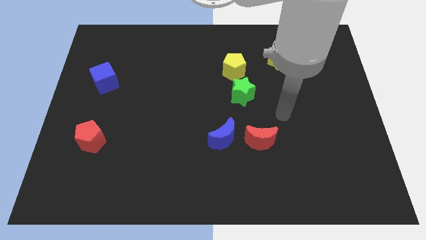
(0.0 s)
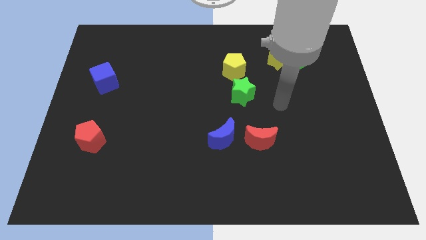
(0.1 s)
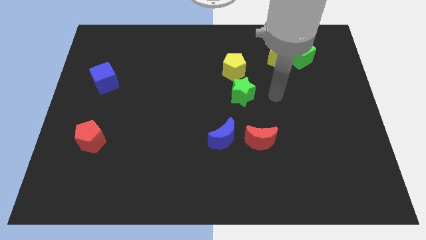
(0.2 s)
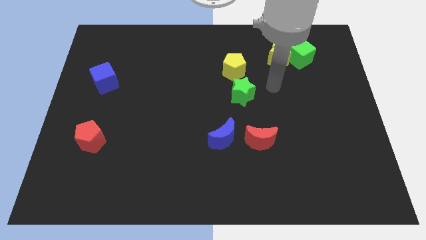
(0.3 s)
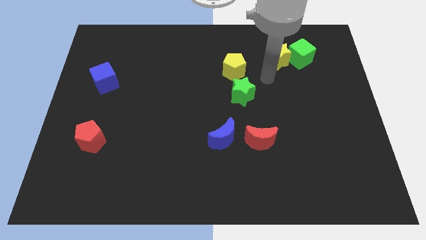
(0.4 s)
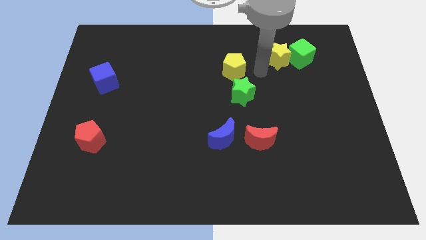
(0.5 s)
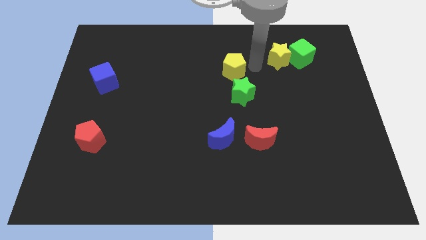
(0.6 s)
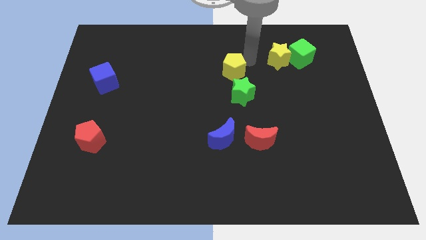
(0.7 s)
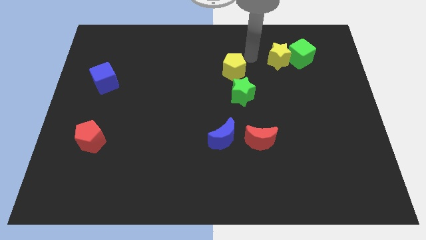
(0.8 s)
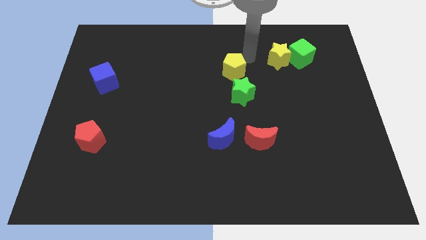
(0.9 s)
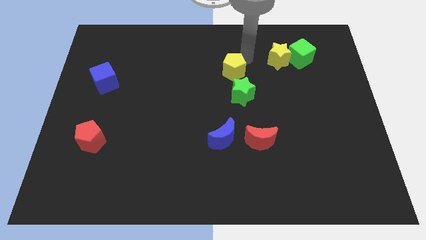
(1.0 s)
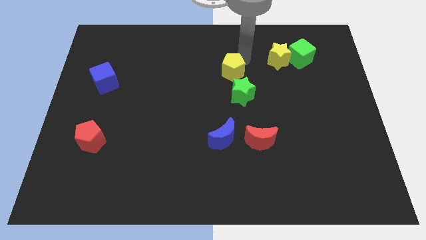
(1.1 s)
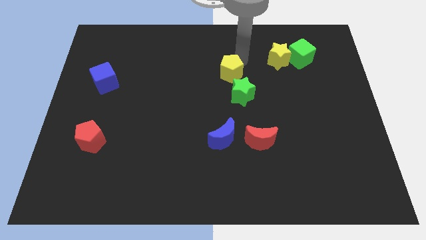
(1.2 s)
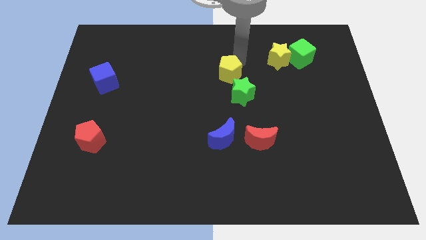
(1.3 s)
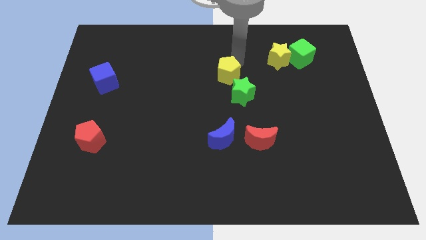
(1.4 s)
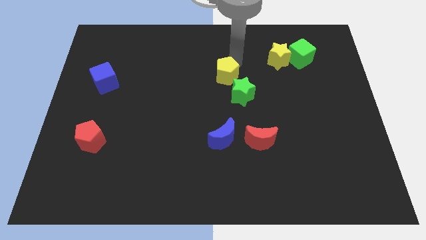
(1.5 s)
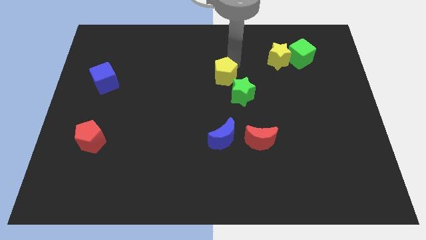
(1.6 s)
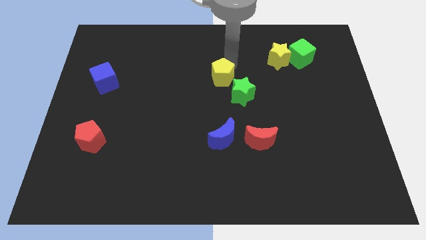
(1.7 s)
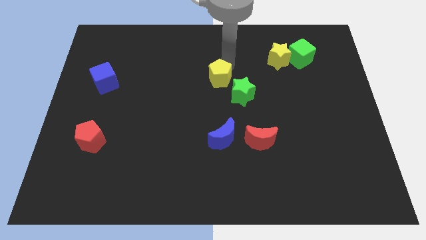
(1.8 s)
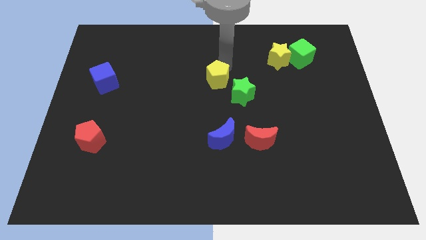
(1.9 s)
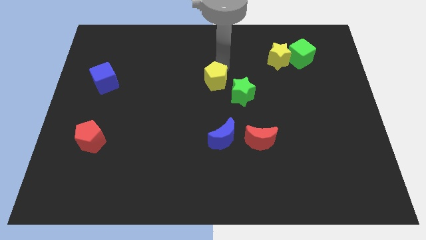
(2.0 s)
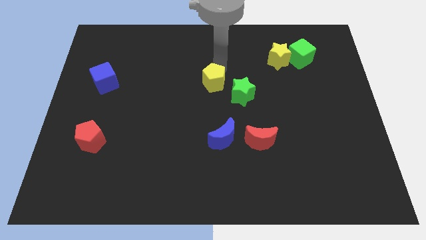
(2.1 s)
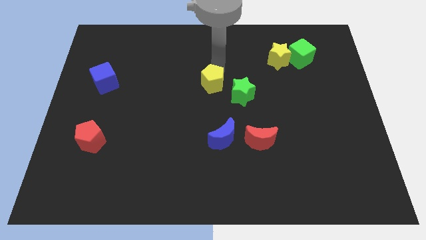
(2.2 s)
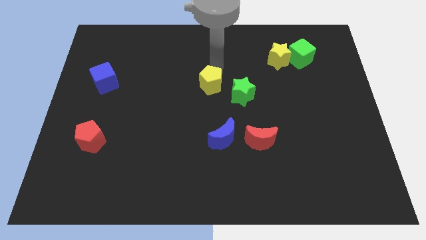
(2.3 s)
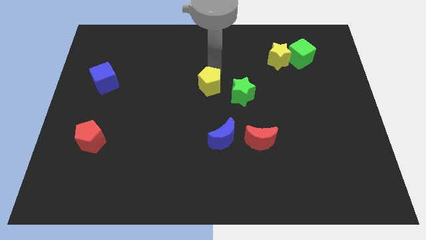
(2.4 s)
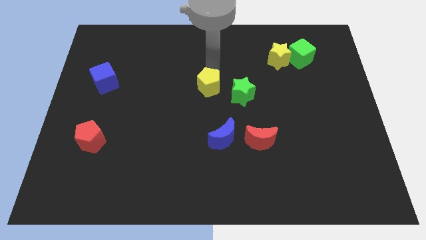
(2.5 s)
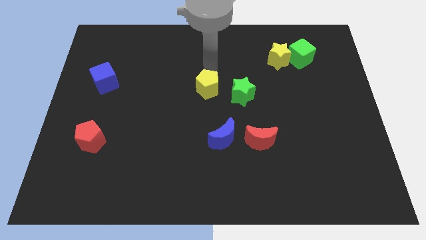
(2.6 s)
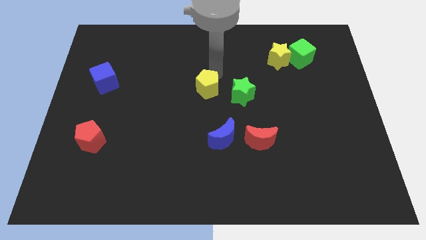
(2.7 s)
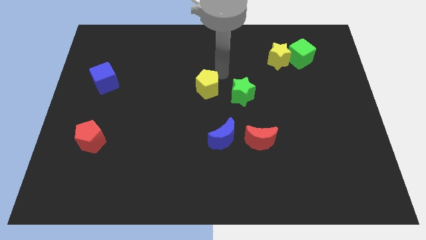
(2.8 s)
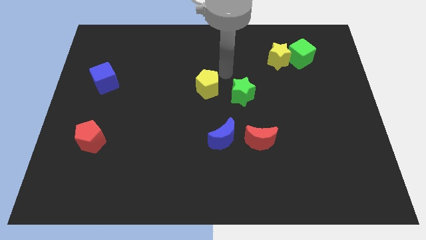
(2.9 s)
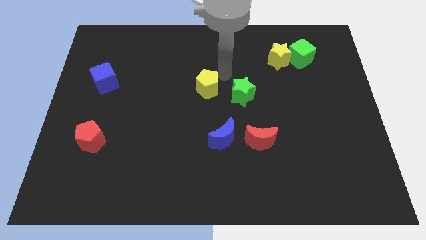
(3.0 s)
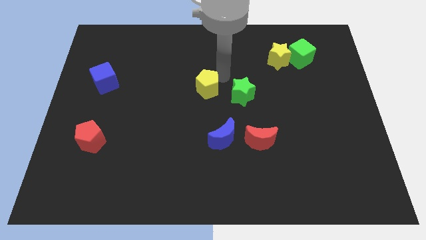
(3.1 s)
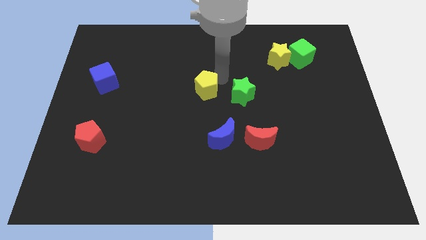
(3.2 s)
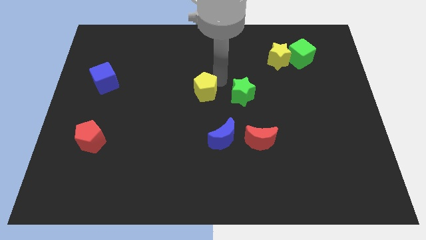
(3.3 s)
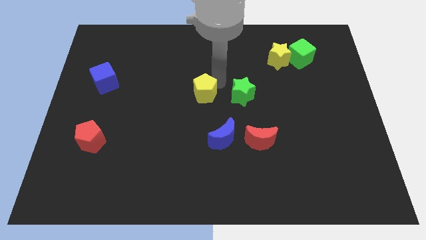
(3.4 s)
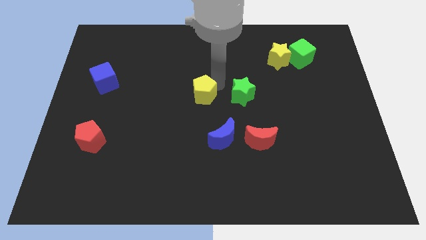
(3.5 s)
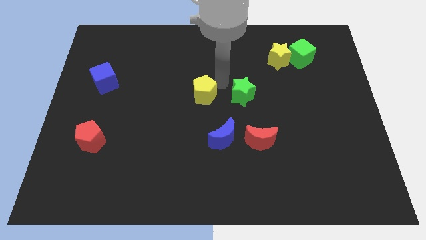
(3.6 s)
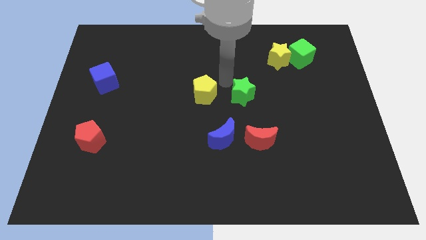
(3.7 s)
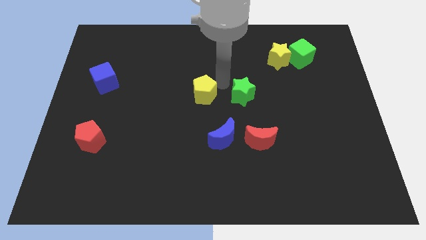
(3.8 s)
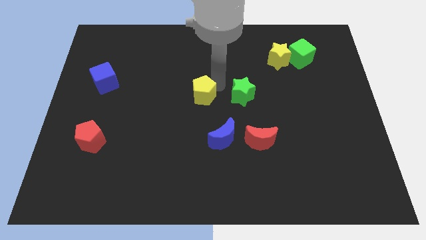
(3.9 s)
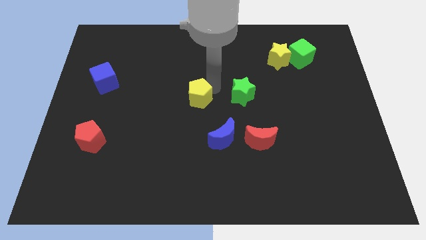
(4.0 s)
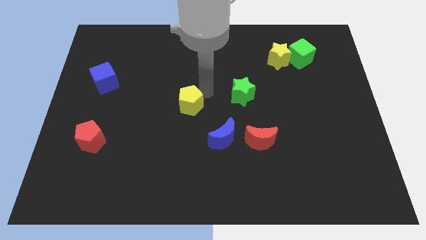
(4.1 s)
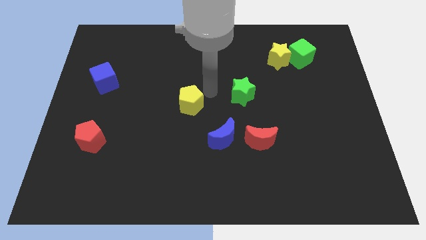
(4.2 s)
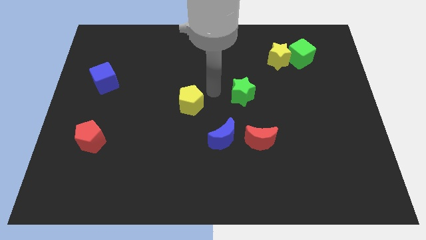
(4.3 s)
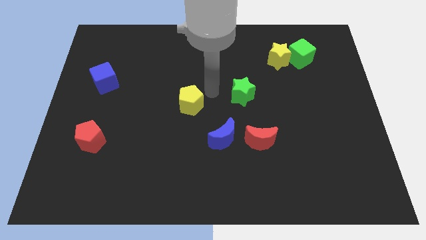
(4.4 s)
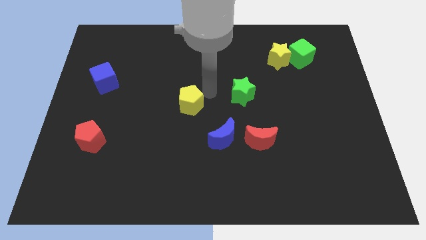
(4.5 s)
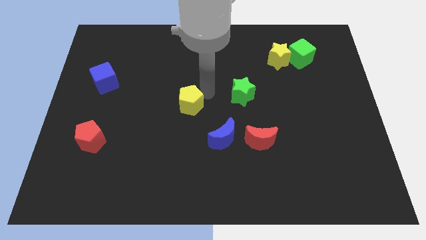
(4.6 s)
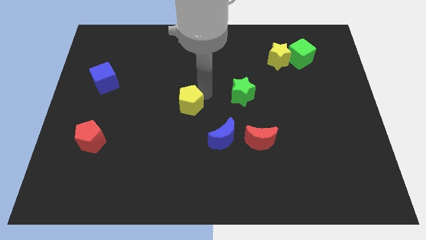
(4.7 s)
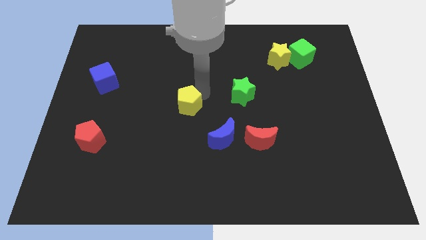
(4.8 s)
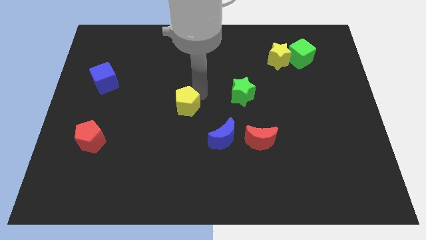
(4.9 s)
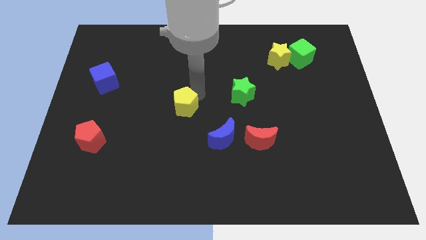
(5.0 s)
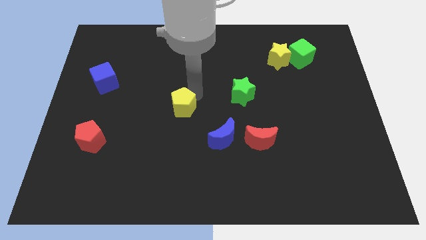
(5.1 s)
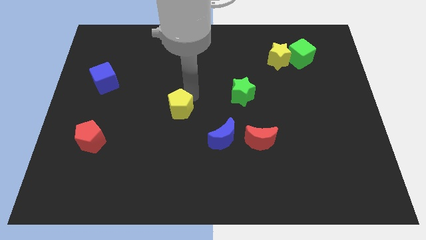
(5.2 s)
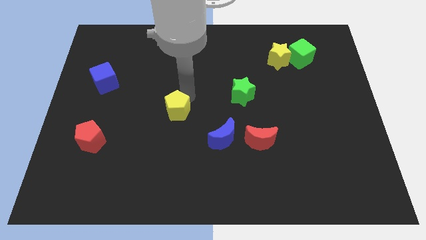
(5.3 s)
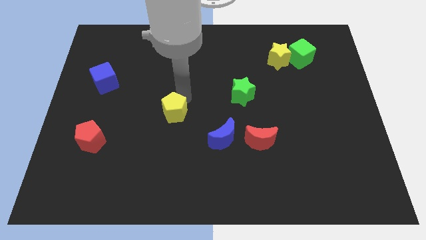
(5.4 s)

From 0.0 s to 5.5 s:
slide the yellow pentagon downwards and then to the left

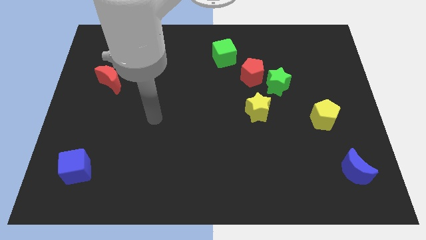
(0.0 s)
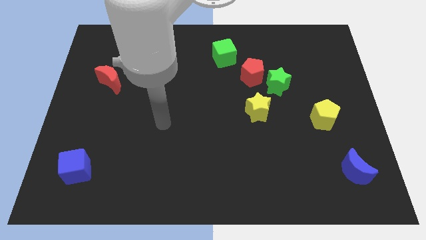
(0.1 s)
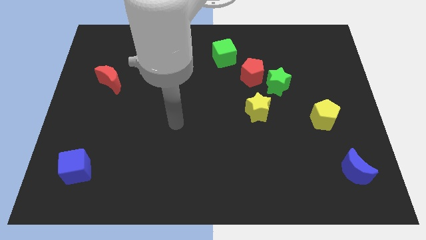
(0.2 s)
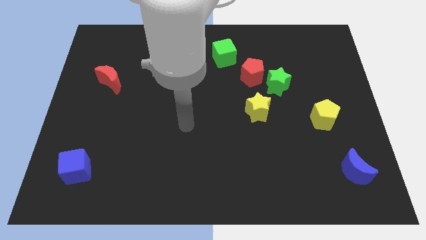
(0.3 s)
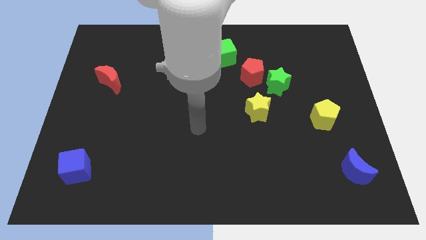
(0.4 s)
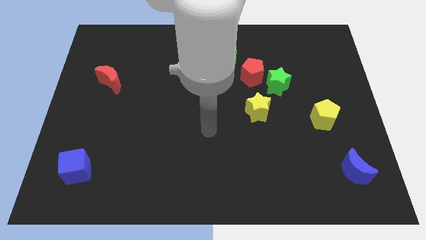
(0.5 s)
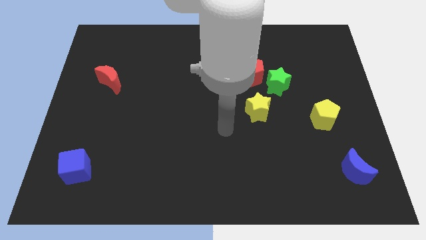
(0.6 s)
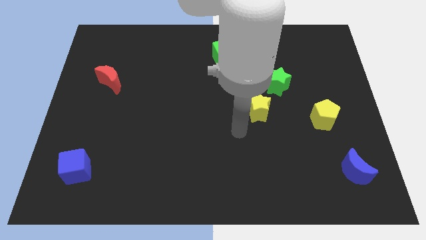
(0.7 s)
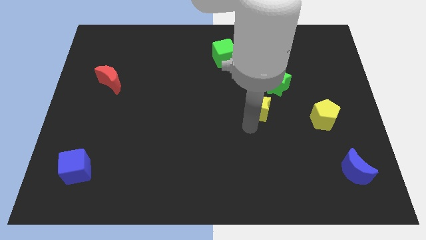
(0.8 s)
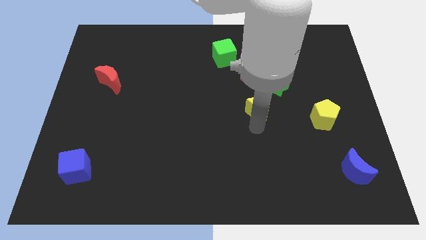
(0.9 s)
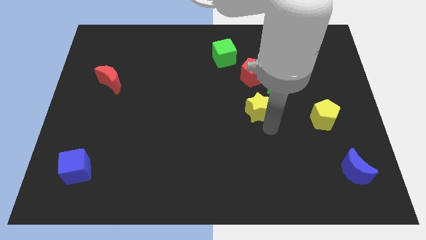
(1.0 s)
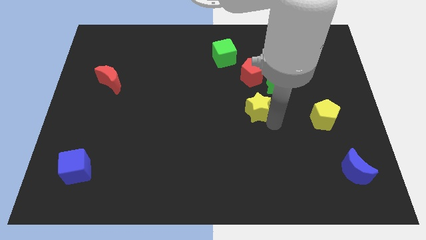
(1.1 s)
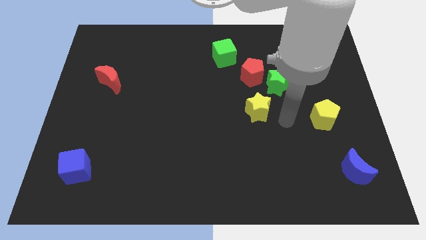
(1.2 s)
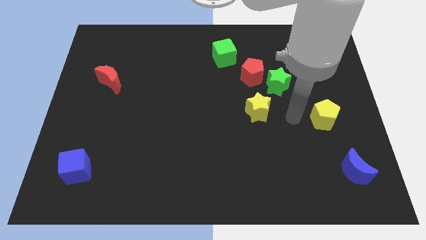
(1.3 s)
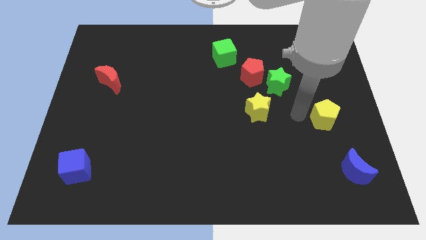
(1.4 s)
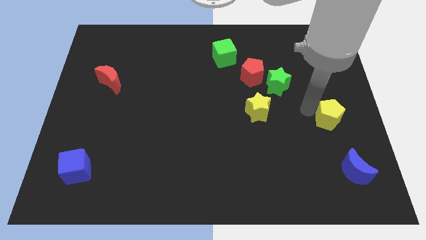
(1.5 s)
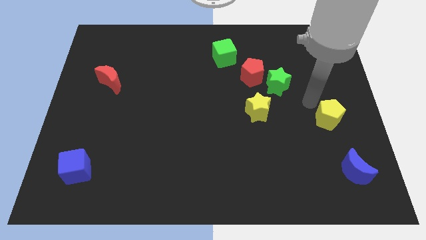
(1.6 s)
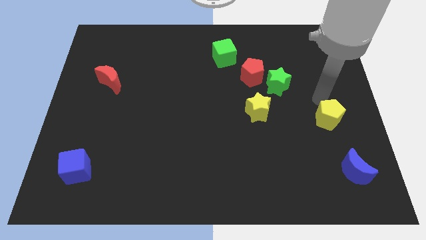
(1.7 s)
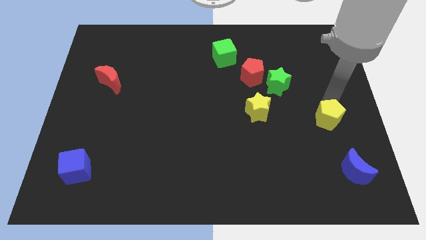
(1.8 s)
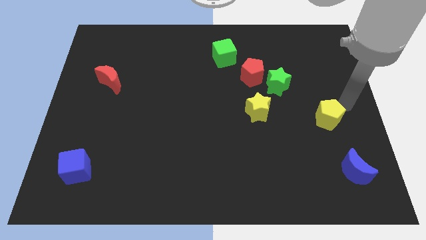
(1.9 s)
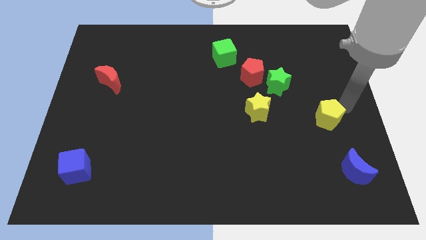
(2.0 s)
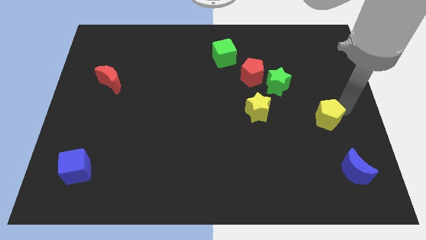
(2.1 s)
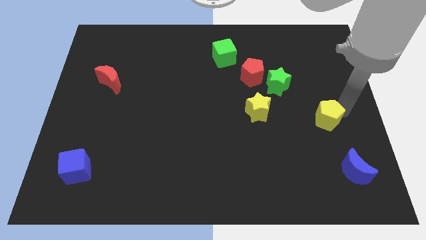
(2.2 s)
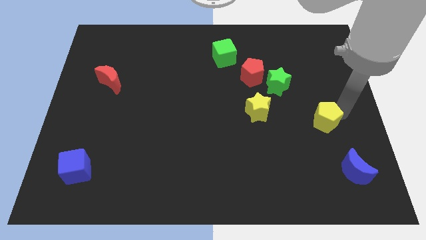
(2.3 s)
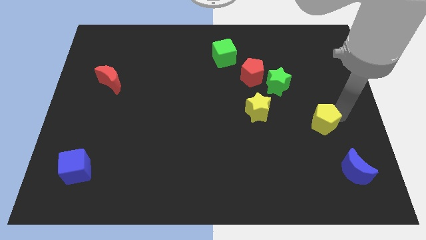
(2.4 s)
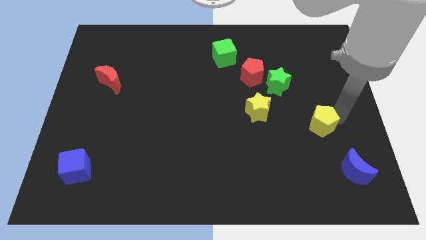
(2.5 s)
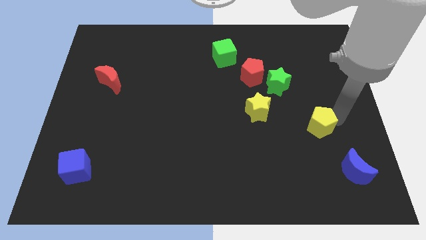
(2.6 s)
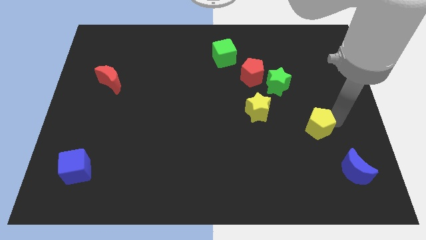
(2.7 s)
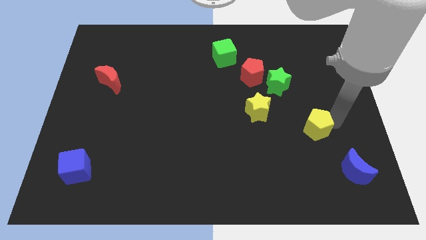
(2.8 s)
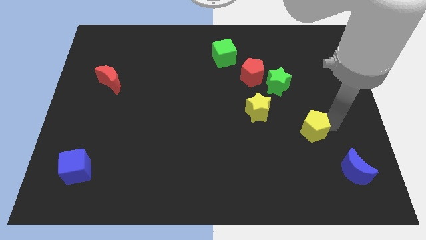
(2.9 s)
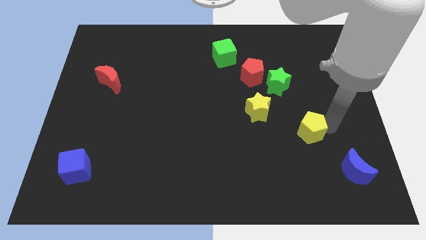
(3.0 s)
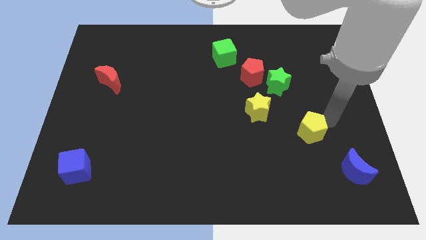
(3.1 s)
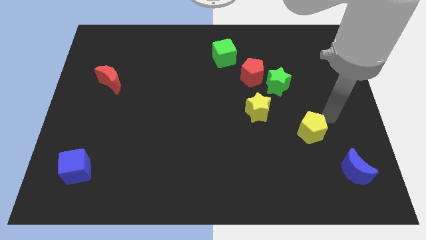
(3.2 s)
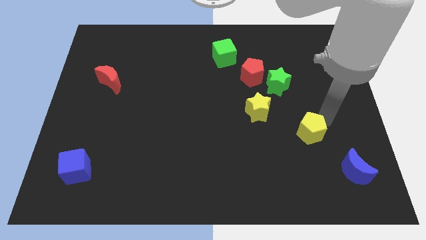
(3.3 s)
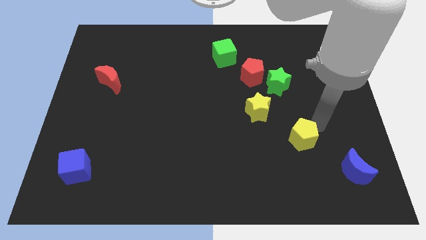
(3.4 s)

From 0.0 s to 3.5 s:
slightly move the yellow pentagon diagonally downwards and left
